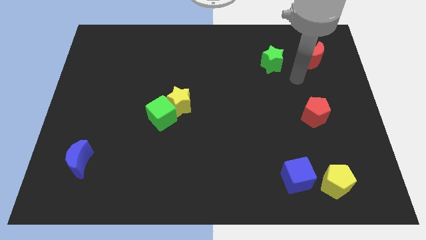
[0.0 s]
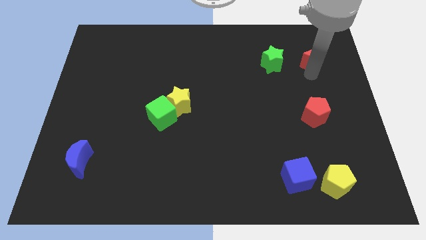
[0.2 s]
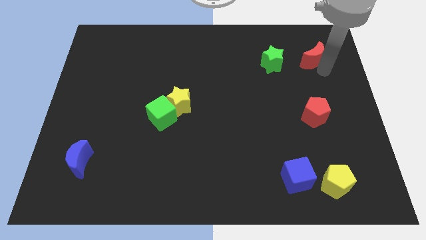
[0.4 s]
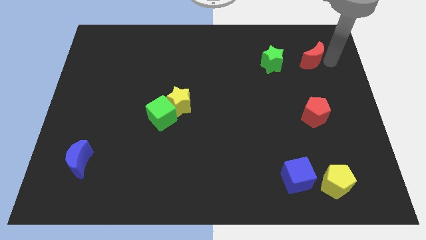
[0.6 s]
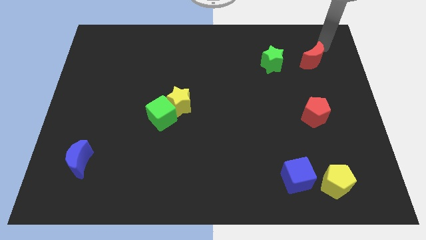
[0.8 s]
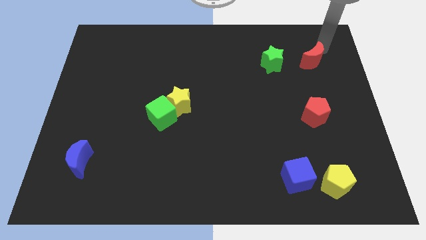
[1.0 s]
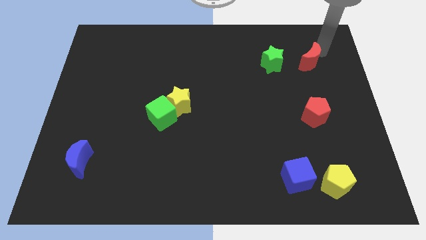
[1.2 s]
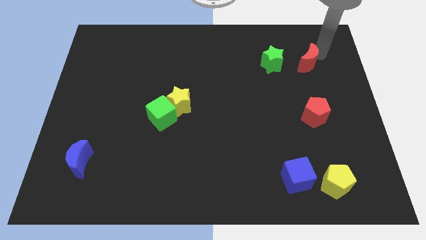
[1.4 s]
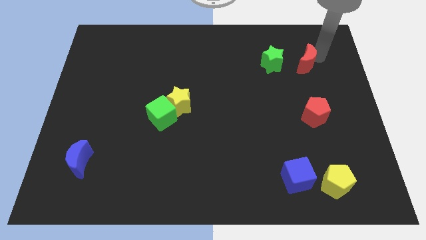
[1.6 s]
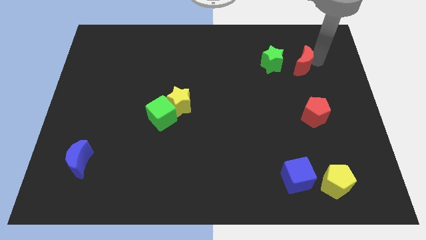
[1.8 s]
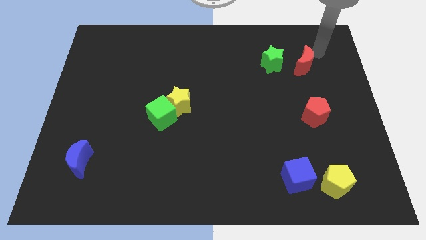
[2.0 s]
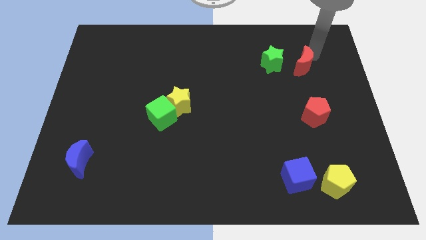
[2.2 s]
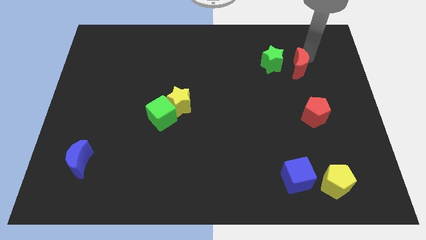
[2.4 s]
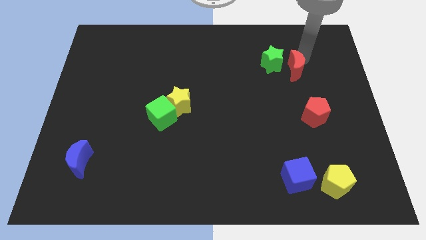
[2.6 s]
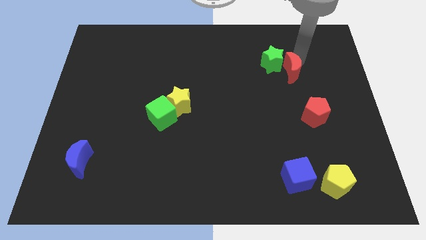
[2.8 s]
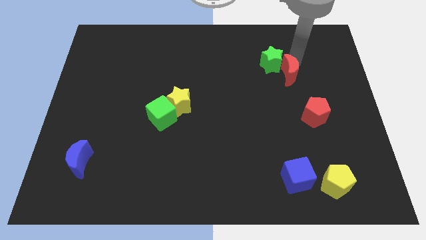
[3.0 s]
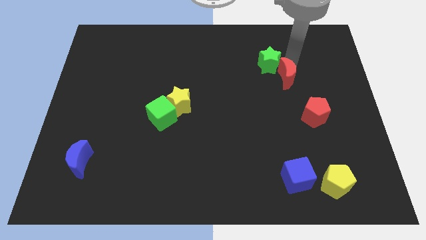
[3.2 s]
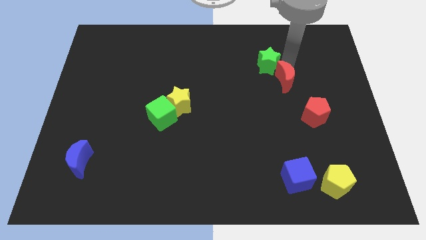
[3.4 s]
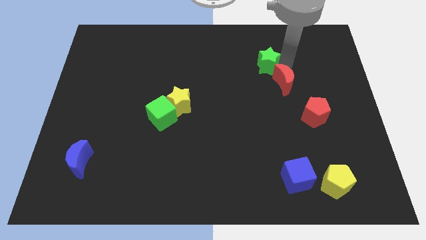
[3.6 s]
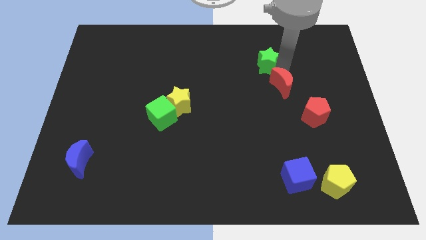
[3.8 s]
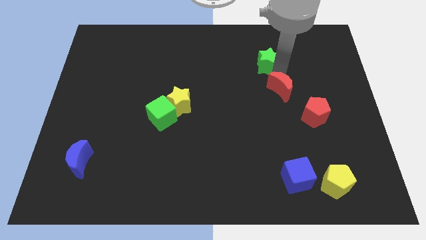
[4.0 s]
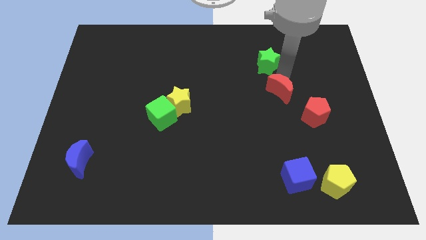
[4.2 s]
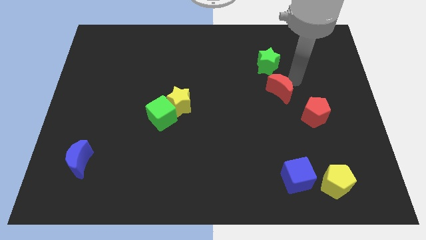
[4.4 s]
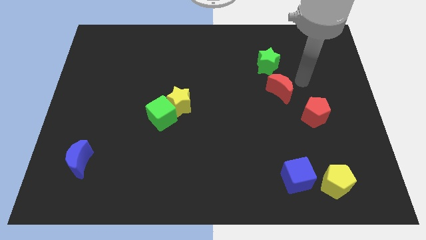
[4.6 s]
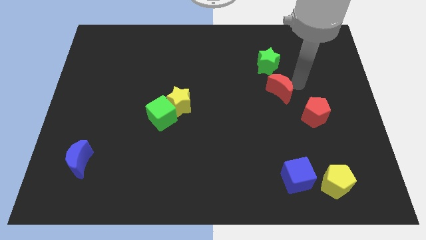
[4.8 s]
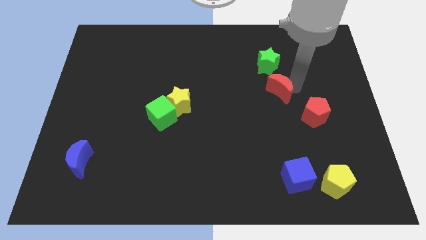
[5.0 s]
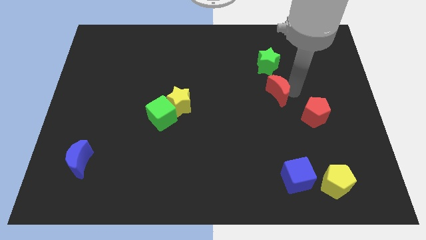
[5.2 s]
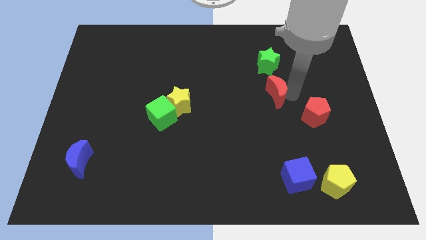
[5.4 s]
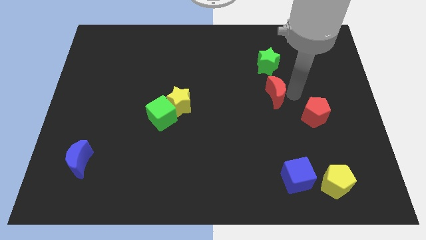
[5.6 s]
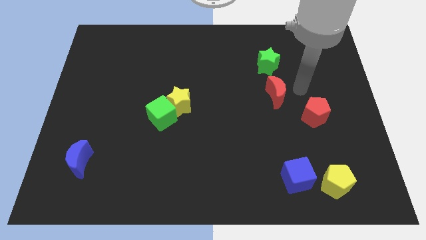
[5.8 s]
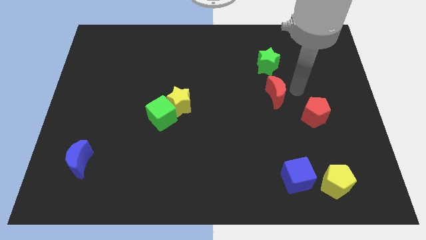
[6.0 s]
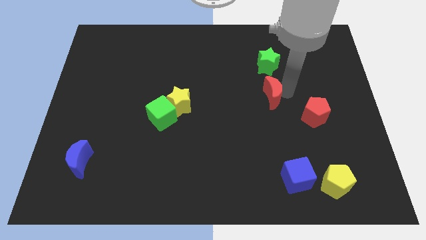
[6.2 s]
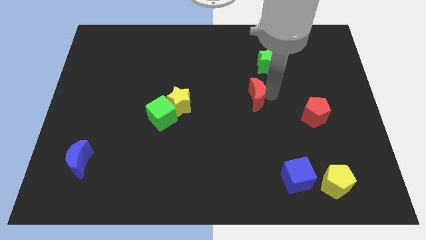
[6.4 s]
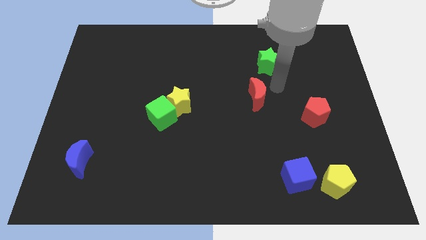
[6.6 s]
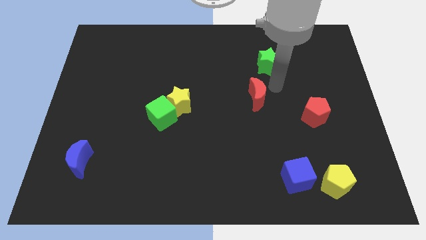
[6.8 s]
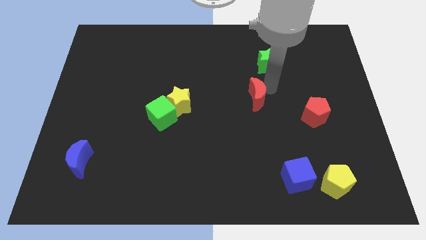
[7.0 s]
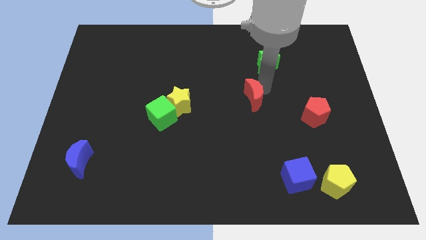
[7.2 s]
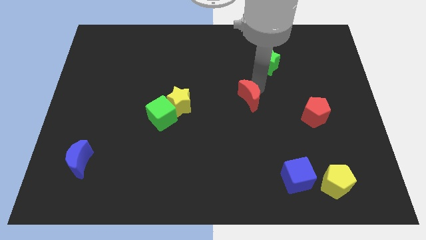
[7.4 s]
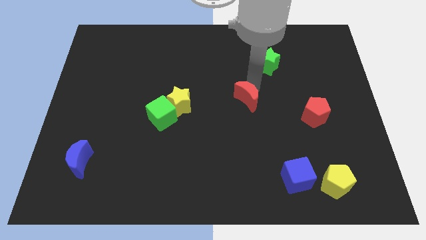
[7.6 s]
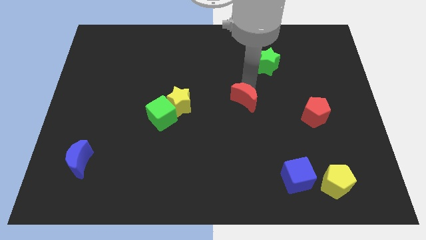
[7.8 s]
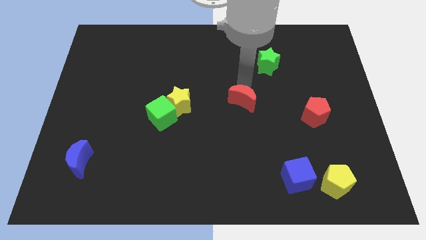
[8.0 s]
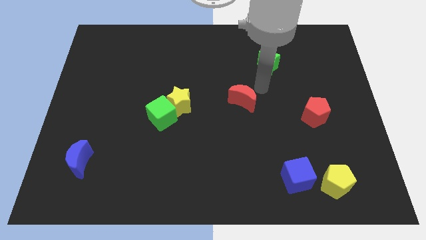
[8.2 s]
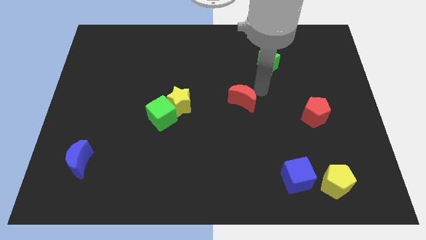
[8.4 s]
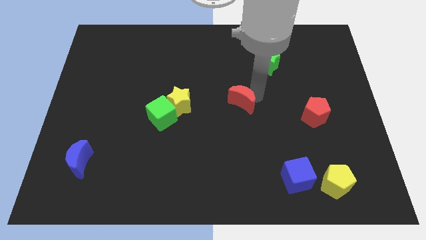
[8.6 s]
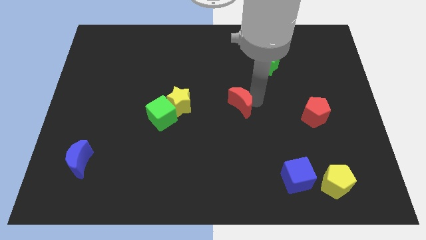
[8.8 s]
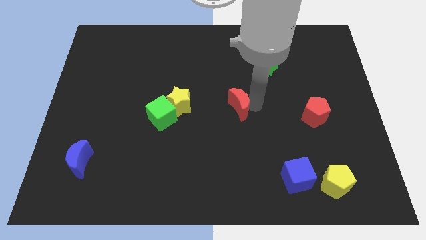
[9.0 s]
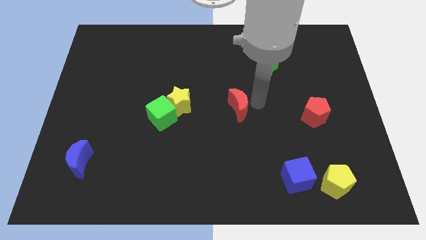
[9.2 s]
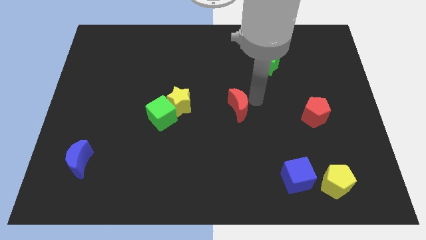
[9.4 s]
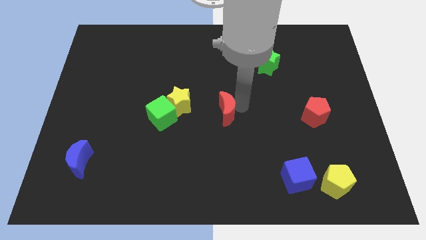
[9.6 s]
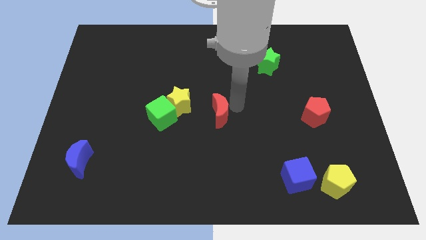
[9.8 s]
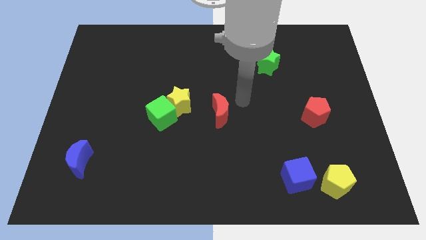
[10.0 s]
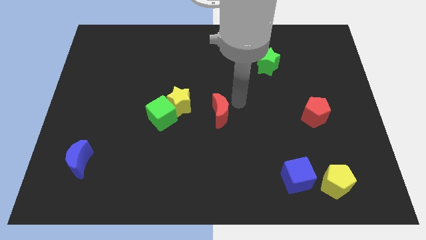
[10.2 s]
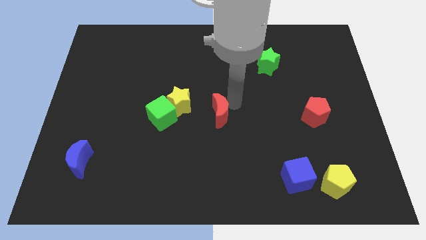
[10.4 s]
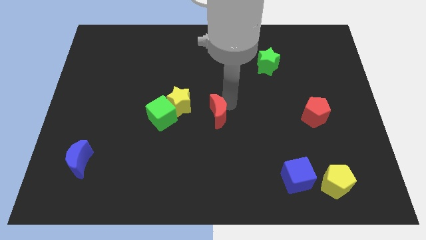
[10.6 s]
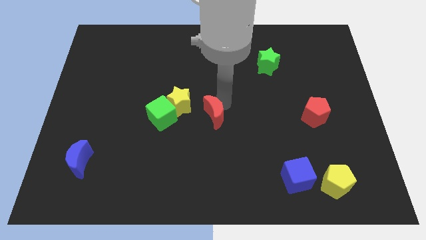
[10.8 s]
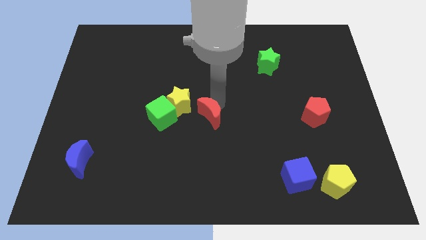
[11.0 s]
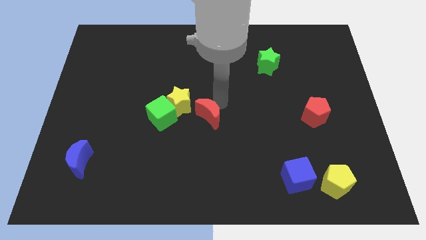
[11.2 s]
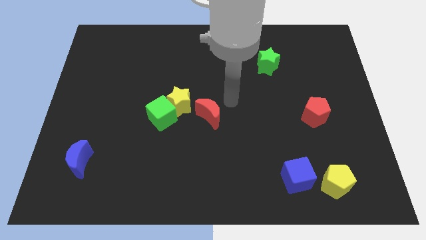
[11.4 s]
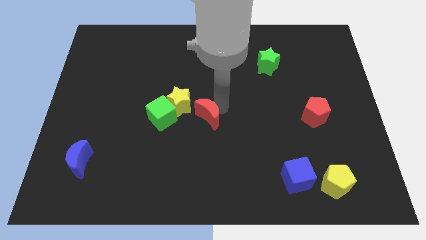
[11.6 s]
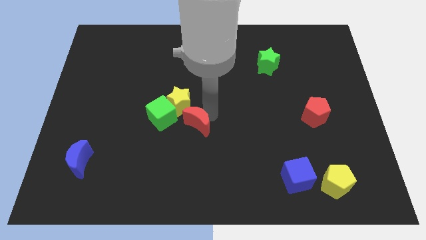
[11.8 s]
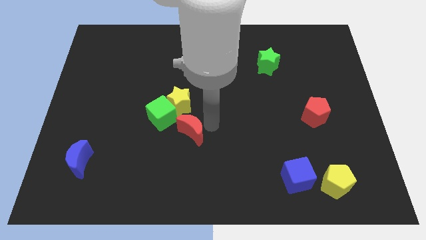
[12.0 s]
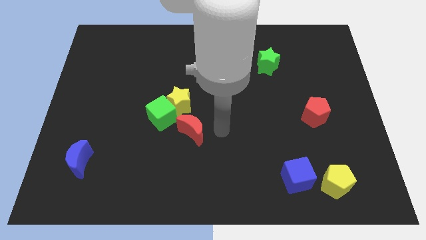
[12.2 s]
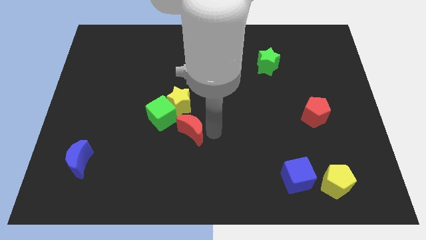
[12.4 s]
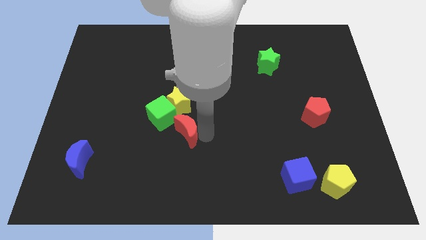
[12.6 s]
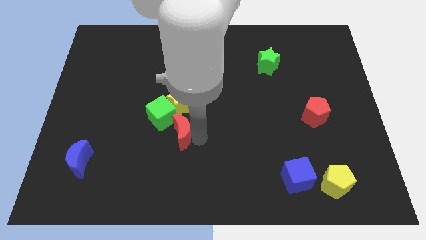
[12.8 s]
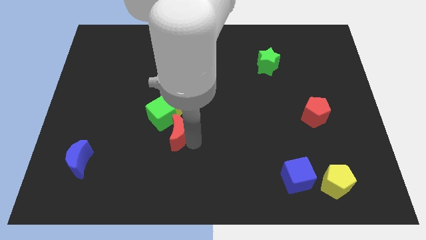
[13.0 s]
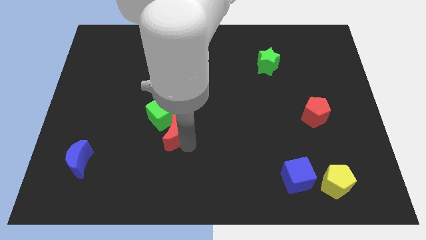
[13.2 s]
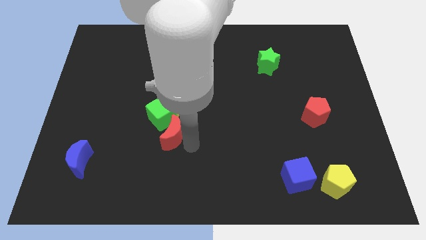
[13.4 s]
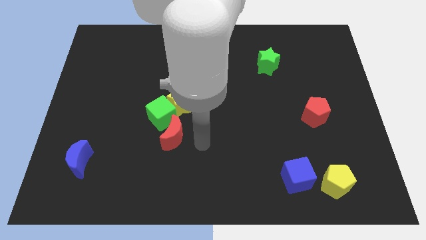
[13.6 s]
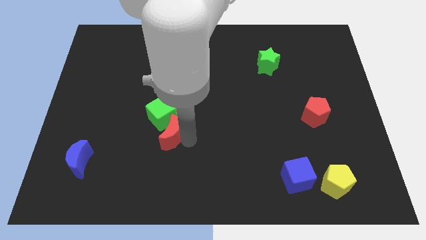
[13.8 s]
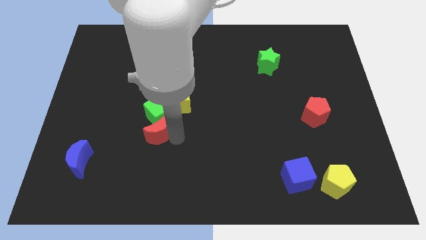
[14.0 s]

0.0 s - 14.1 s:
push the red moon diagonally down and to the left of the green cube
